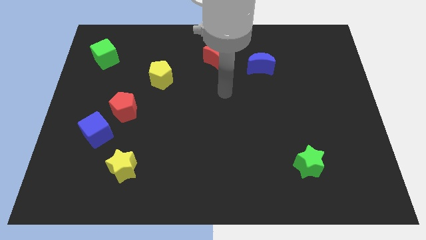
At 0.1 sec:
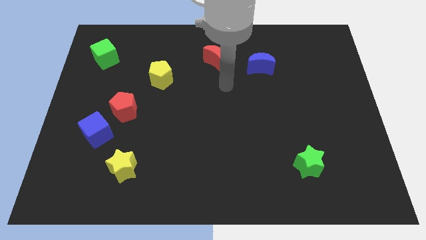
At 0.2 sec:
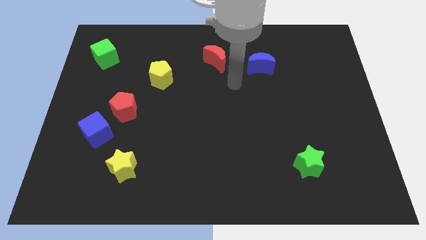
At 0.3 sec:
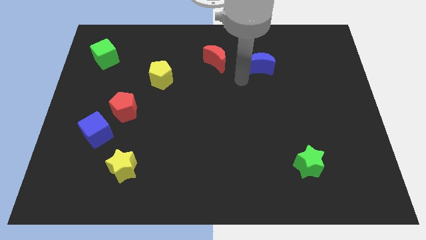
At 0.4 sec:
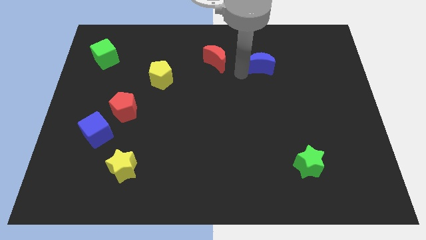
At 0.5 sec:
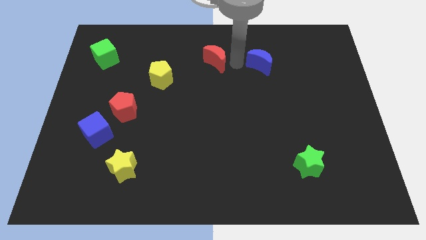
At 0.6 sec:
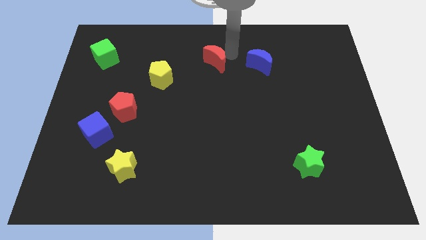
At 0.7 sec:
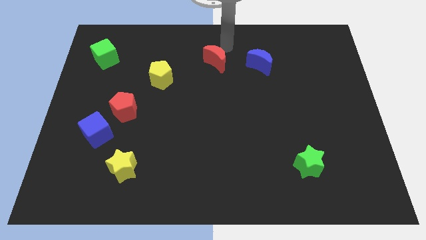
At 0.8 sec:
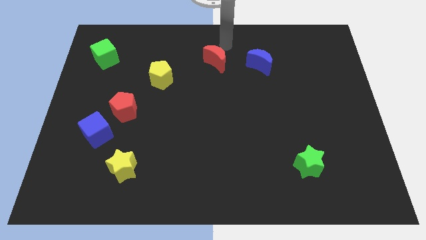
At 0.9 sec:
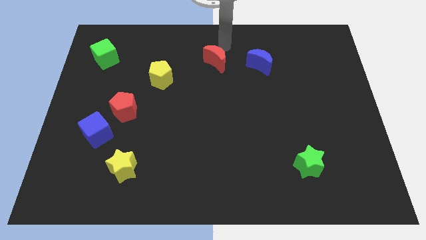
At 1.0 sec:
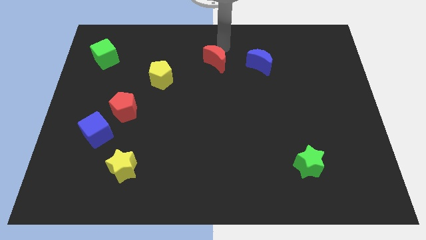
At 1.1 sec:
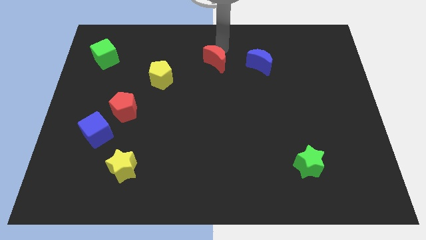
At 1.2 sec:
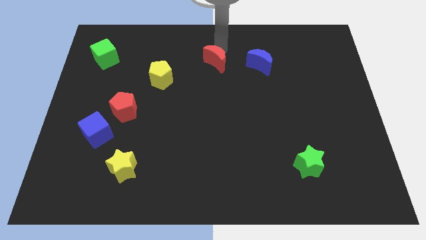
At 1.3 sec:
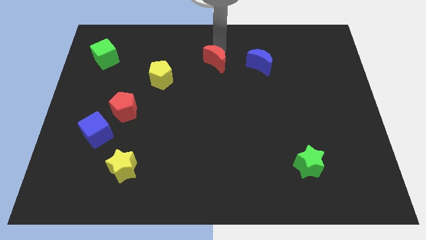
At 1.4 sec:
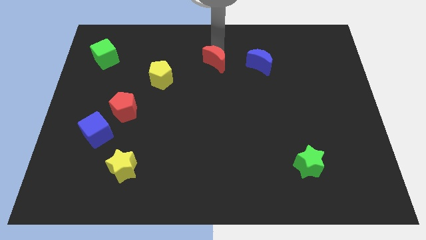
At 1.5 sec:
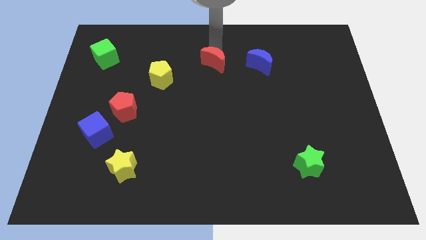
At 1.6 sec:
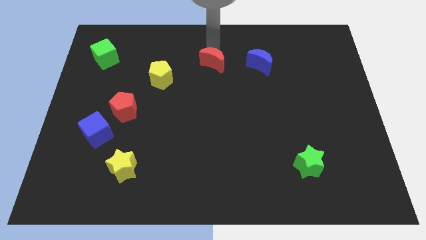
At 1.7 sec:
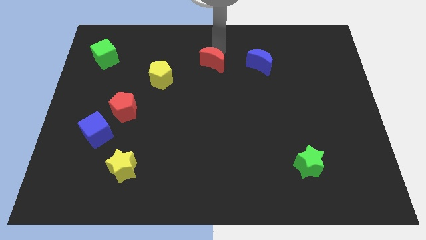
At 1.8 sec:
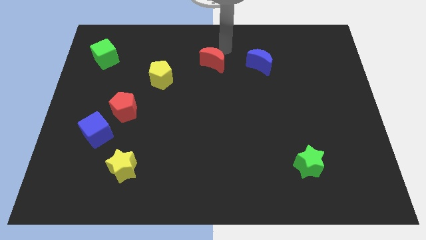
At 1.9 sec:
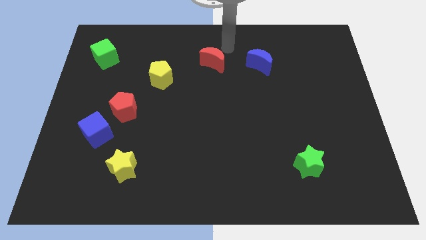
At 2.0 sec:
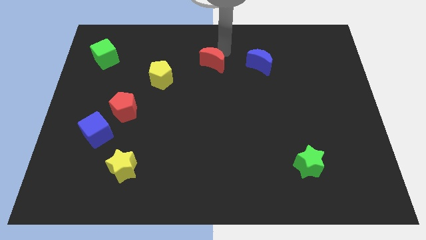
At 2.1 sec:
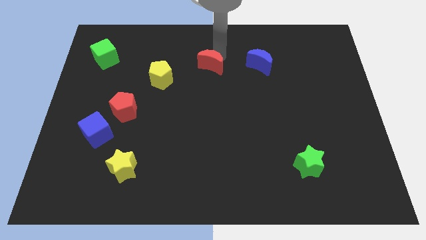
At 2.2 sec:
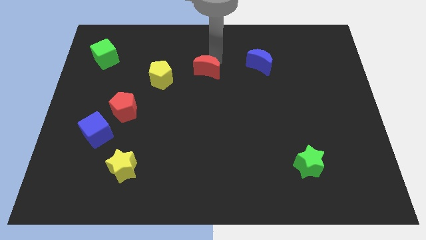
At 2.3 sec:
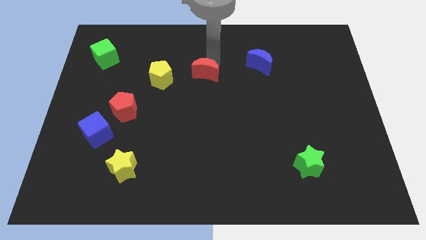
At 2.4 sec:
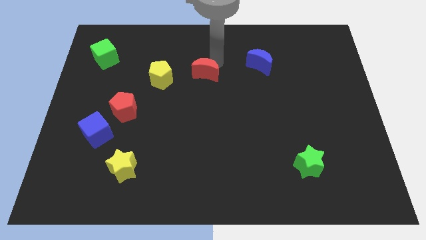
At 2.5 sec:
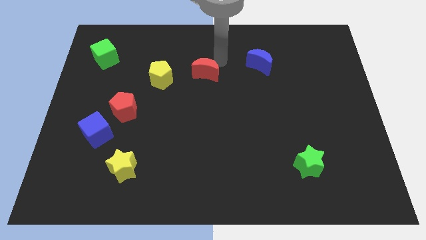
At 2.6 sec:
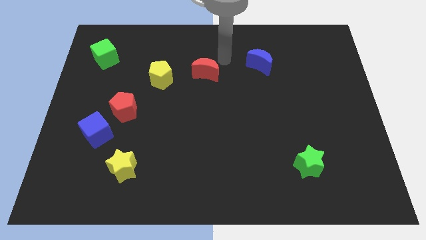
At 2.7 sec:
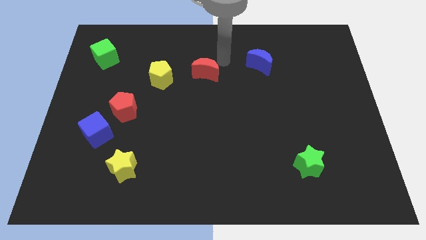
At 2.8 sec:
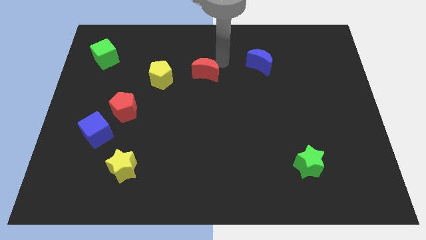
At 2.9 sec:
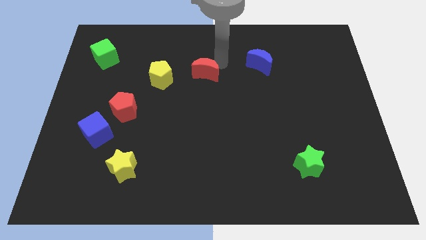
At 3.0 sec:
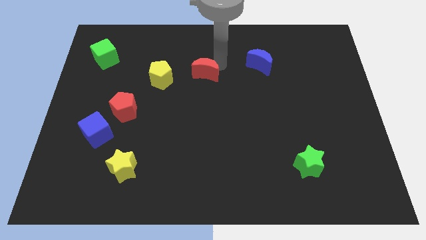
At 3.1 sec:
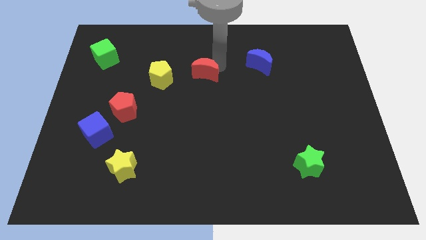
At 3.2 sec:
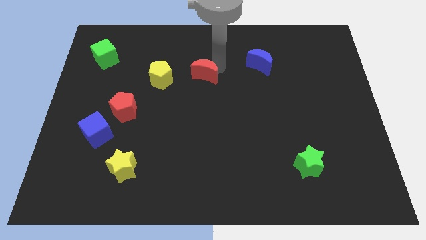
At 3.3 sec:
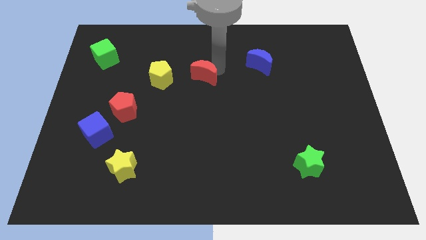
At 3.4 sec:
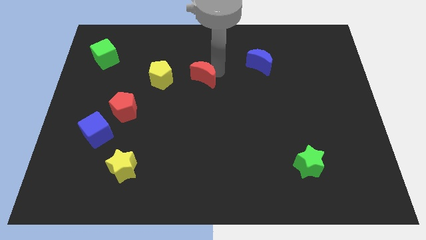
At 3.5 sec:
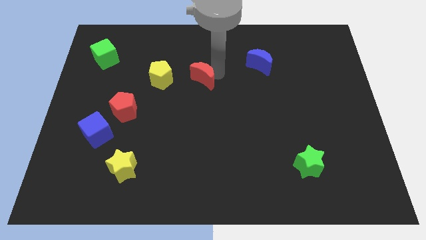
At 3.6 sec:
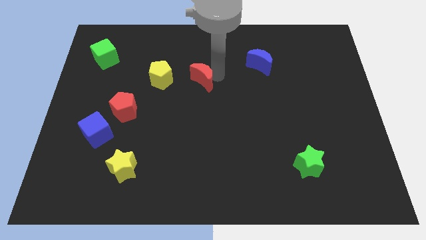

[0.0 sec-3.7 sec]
slide the red moon downwards and to the left diagonally a bit

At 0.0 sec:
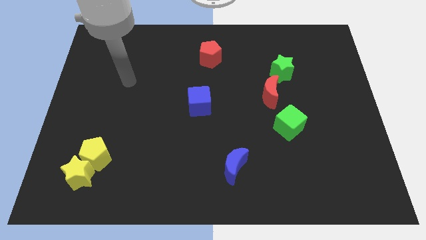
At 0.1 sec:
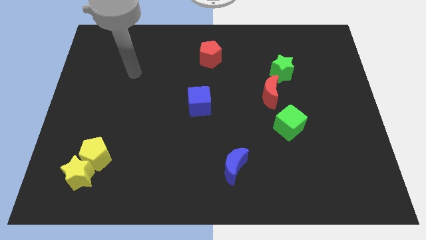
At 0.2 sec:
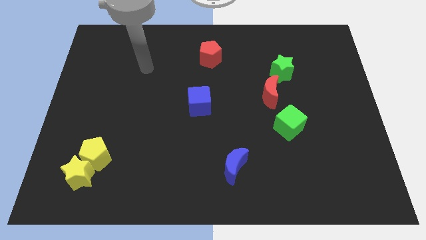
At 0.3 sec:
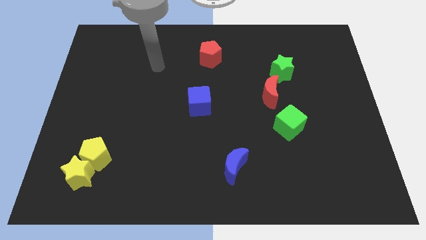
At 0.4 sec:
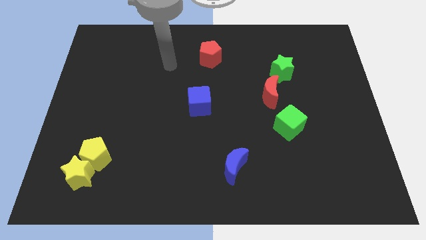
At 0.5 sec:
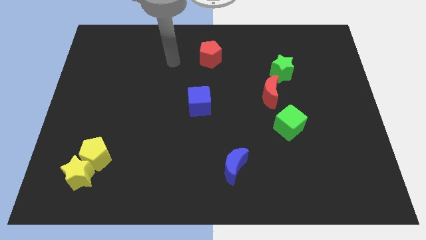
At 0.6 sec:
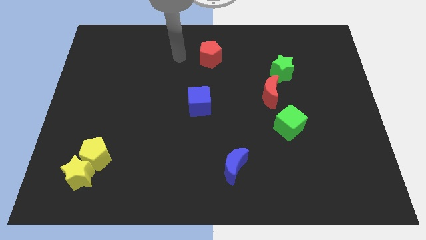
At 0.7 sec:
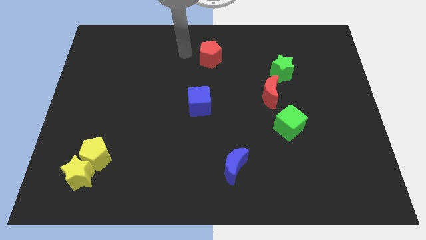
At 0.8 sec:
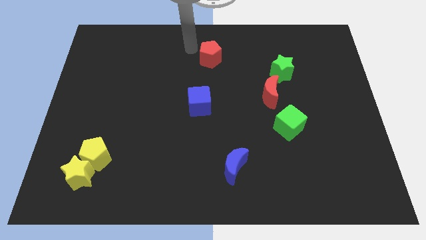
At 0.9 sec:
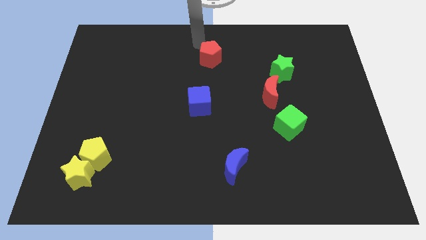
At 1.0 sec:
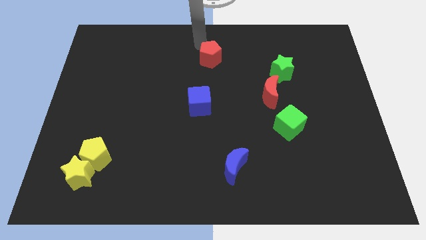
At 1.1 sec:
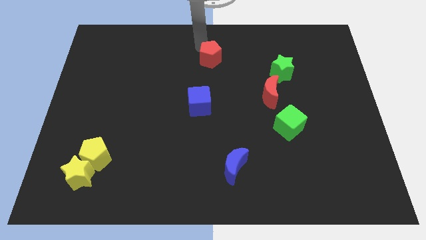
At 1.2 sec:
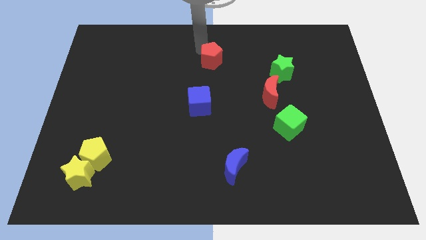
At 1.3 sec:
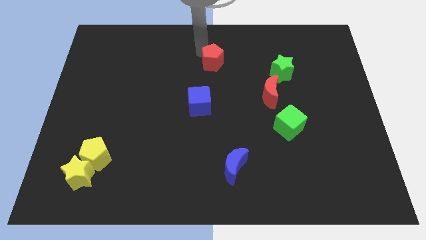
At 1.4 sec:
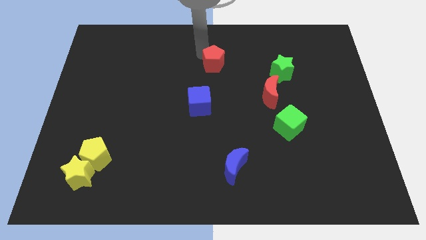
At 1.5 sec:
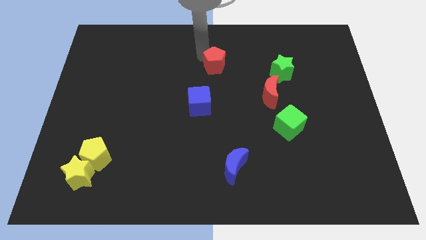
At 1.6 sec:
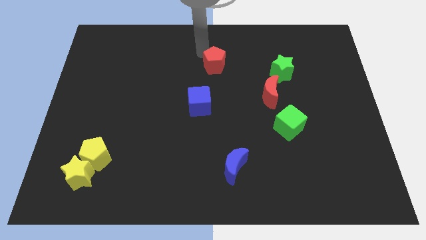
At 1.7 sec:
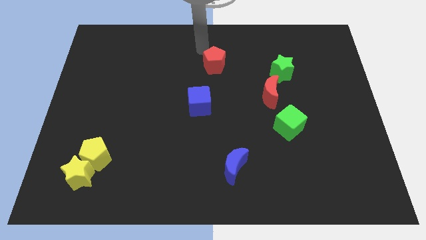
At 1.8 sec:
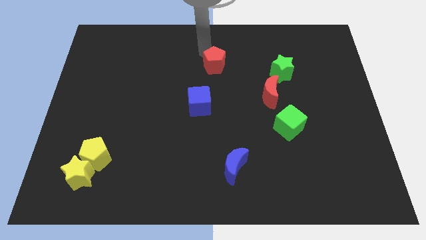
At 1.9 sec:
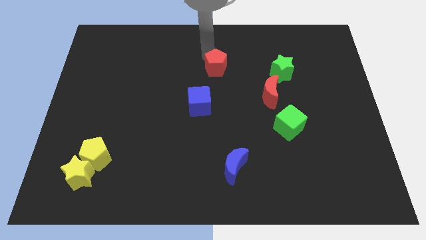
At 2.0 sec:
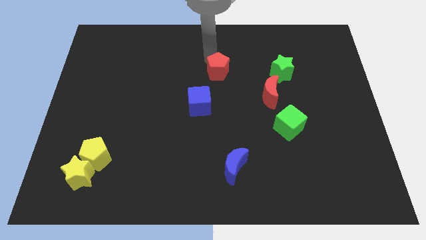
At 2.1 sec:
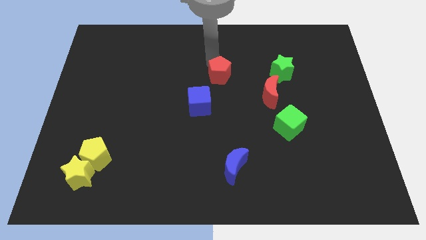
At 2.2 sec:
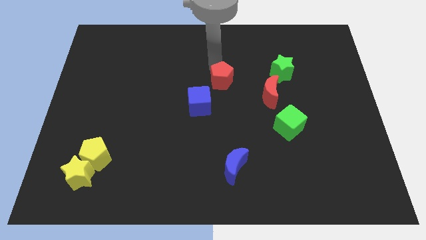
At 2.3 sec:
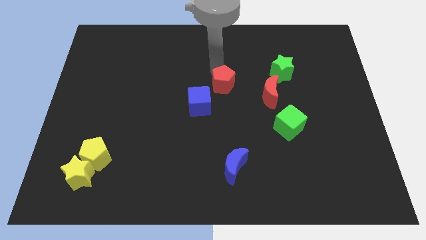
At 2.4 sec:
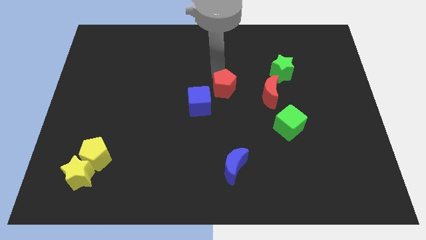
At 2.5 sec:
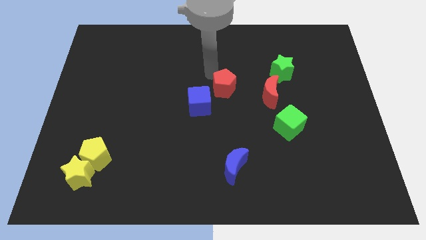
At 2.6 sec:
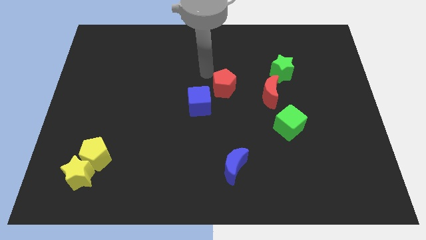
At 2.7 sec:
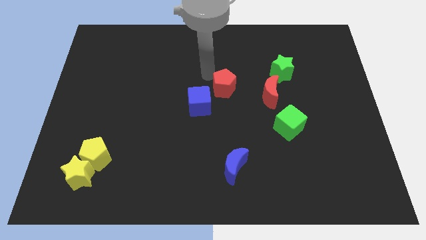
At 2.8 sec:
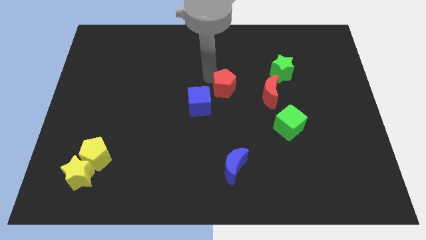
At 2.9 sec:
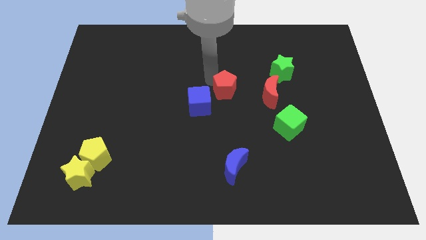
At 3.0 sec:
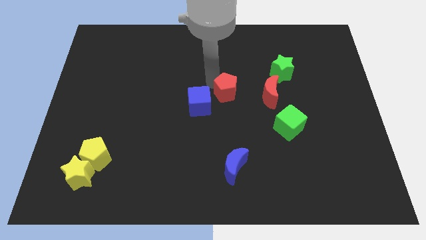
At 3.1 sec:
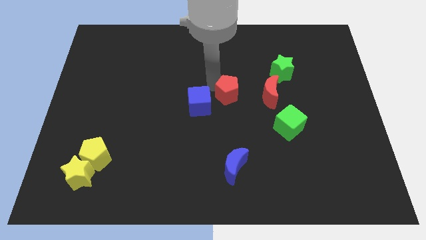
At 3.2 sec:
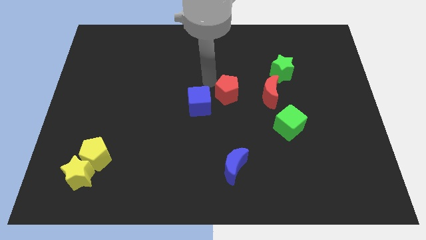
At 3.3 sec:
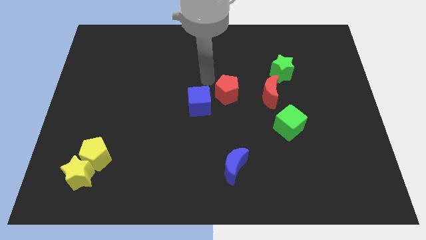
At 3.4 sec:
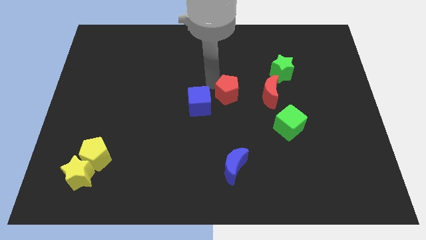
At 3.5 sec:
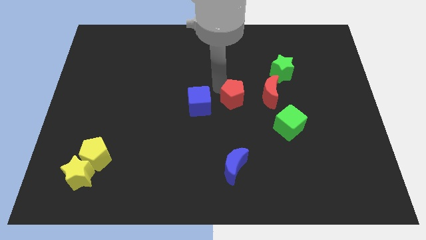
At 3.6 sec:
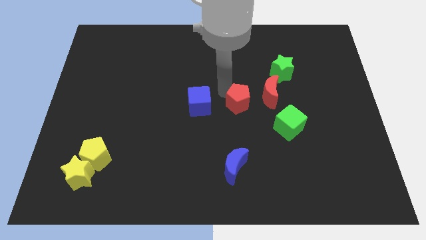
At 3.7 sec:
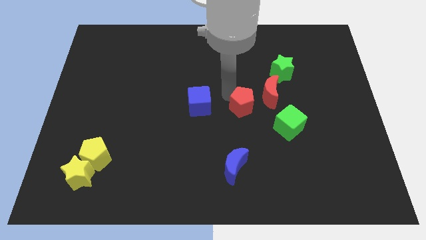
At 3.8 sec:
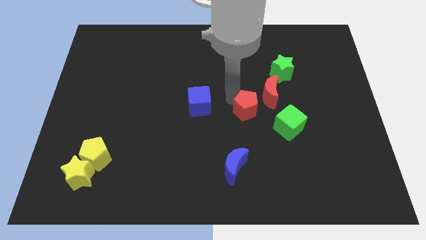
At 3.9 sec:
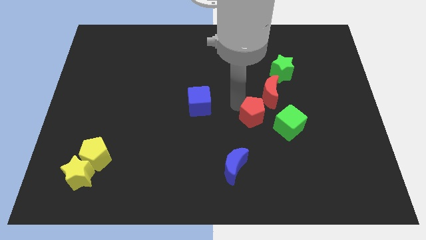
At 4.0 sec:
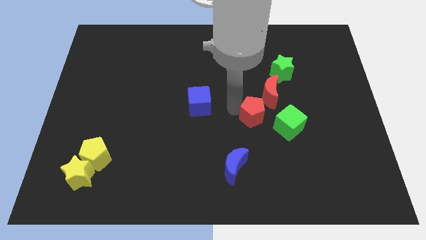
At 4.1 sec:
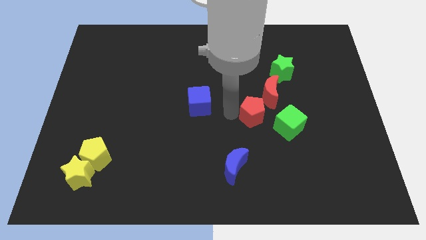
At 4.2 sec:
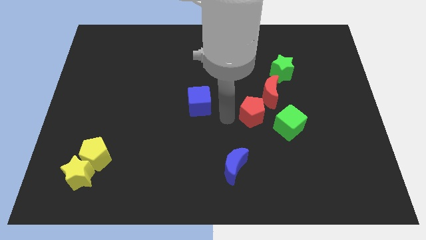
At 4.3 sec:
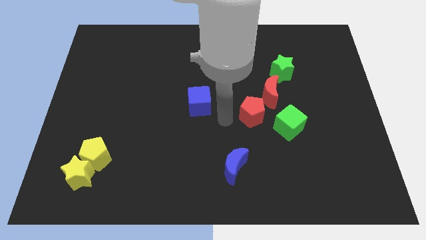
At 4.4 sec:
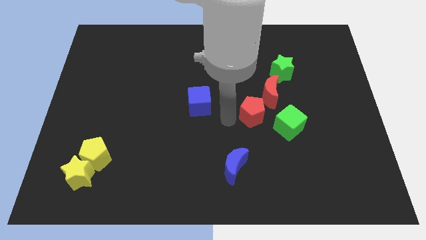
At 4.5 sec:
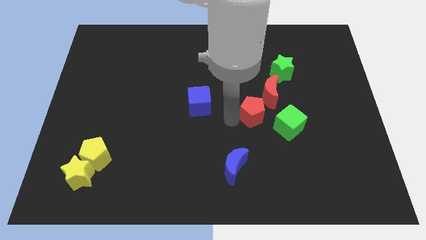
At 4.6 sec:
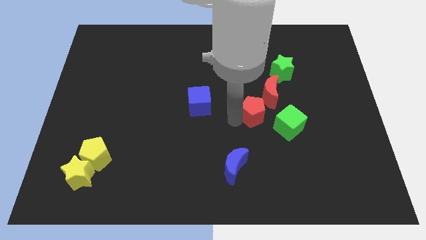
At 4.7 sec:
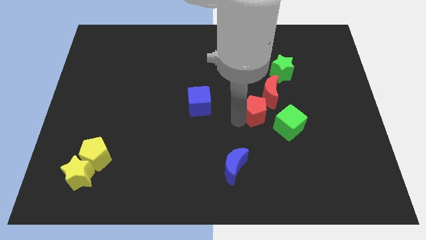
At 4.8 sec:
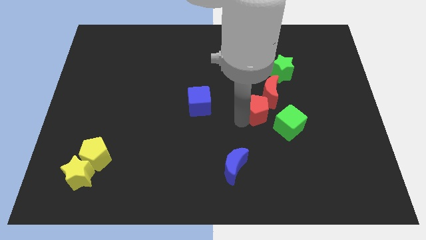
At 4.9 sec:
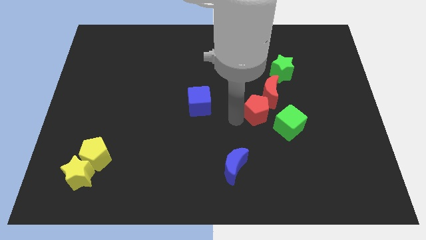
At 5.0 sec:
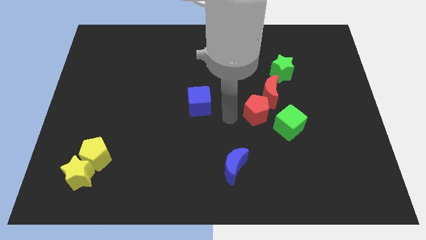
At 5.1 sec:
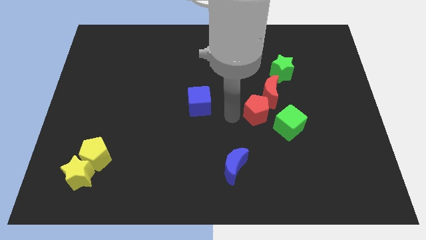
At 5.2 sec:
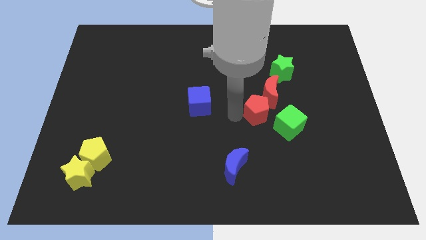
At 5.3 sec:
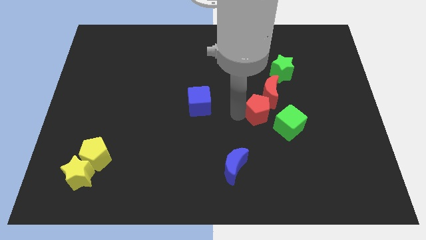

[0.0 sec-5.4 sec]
slide the red pentagon downwards and right
